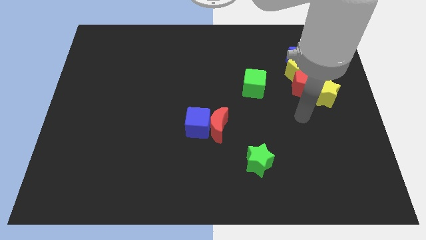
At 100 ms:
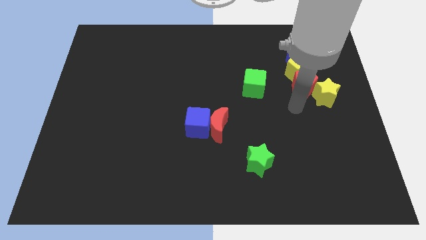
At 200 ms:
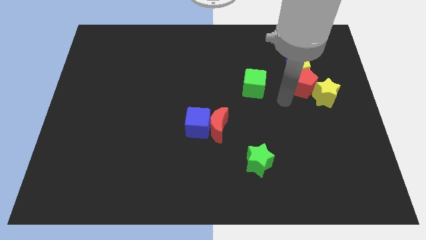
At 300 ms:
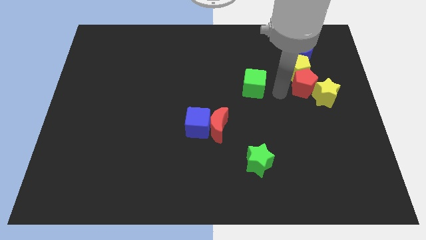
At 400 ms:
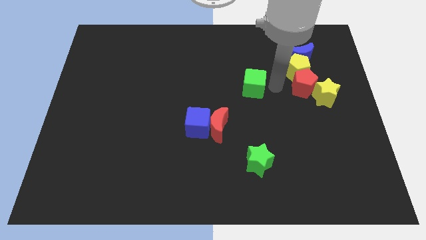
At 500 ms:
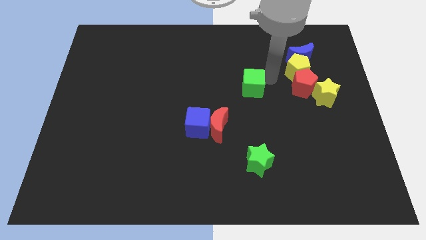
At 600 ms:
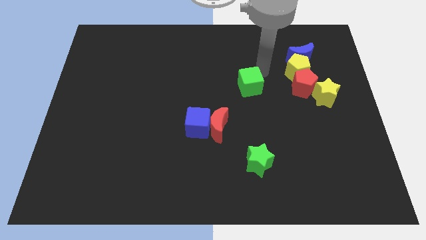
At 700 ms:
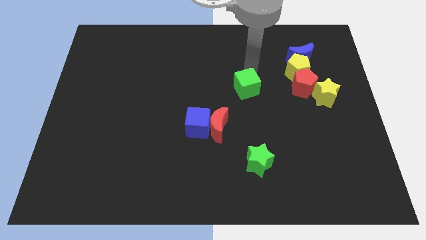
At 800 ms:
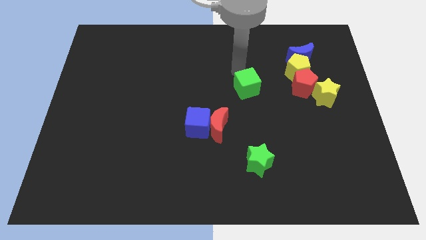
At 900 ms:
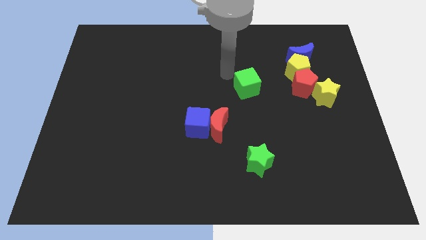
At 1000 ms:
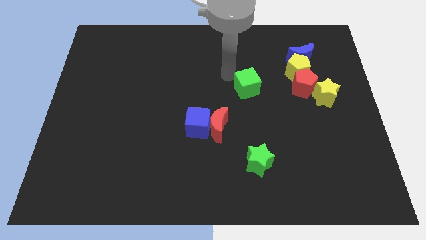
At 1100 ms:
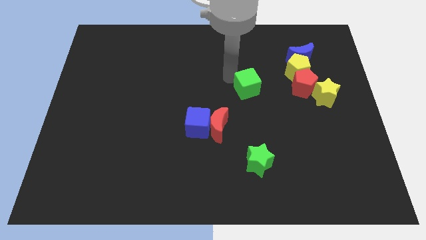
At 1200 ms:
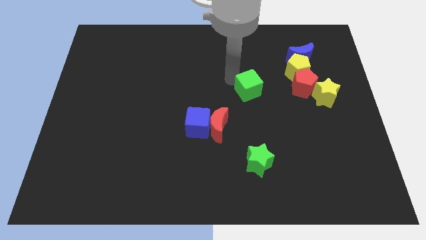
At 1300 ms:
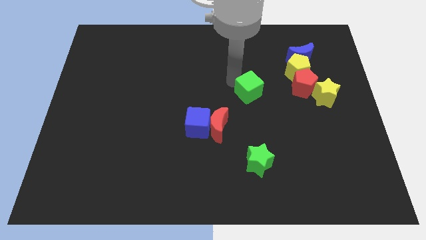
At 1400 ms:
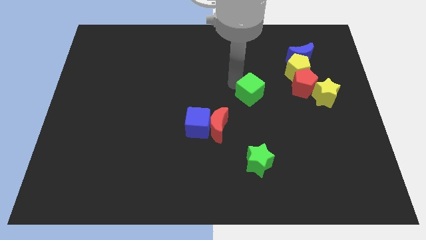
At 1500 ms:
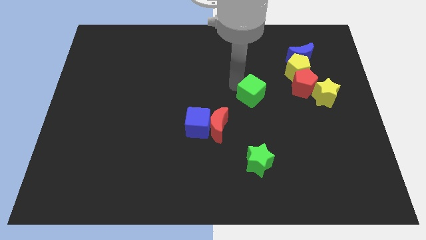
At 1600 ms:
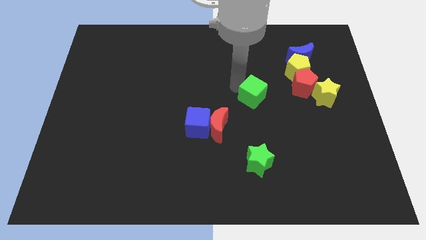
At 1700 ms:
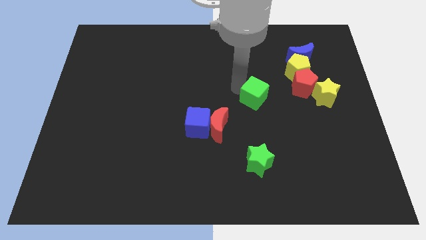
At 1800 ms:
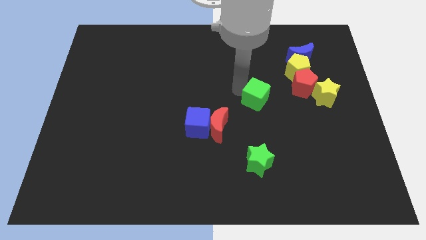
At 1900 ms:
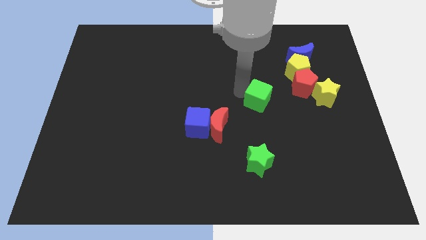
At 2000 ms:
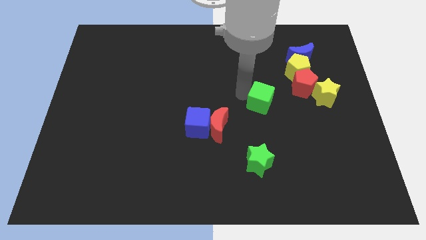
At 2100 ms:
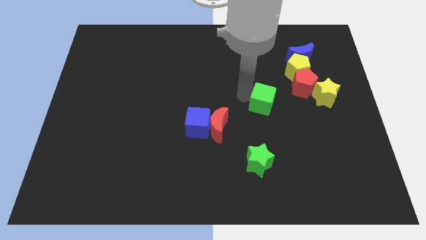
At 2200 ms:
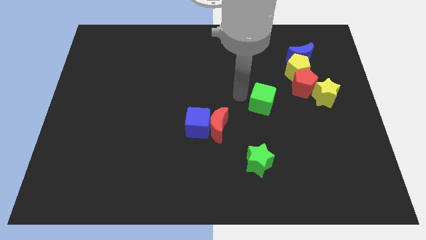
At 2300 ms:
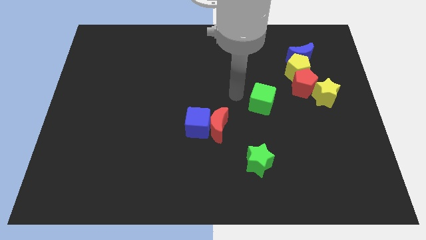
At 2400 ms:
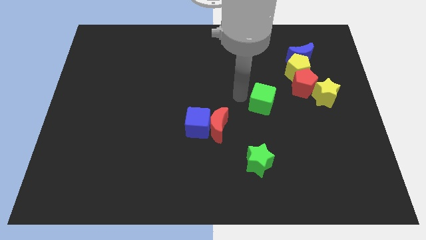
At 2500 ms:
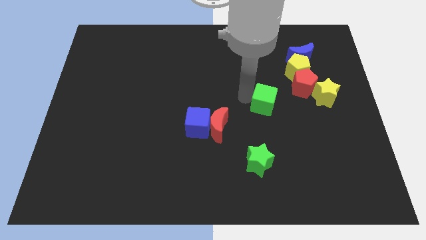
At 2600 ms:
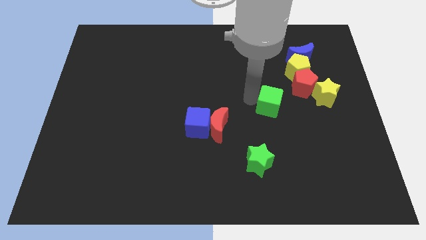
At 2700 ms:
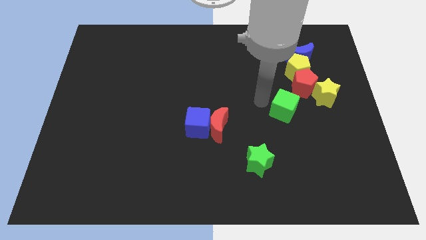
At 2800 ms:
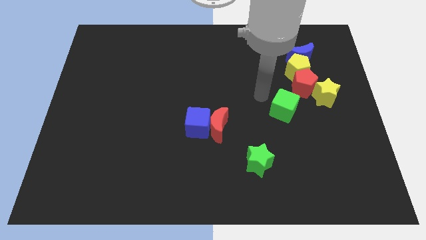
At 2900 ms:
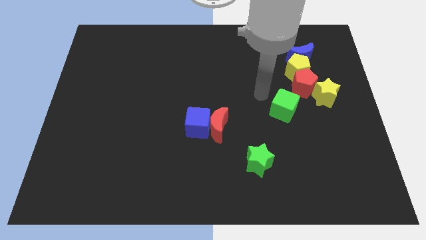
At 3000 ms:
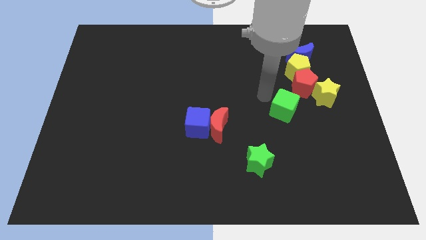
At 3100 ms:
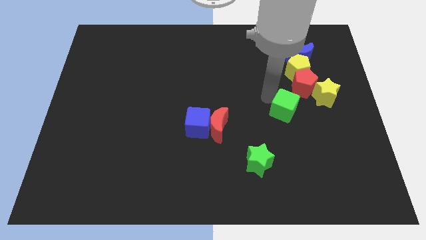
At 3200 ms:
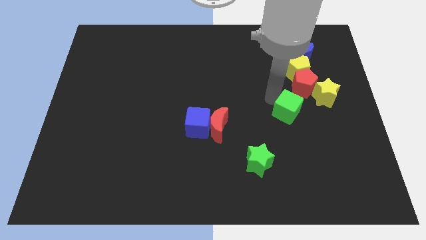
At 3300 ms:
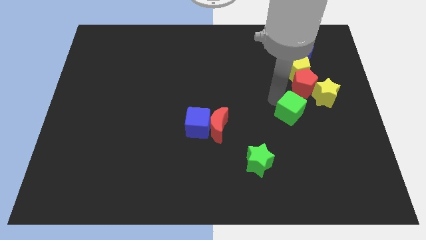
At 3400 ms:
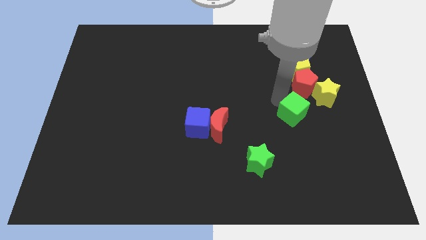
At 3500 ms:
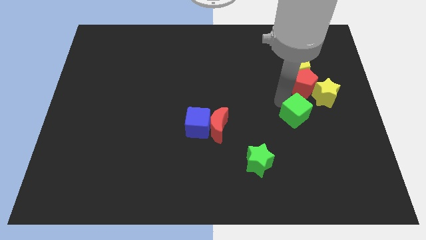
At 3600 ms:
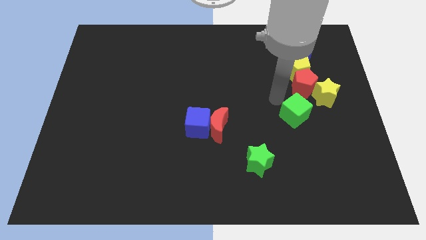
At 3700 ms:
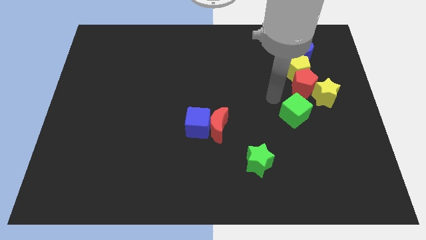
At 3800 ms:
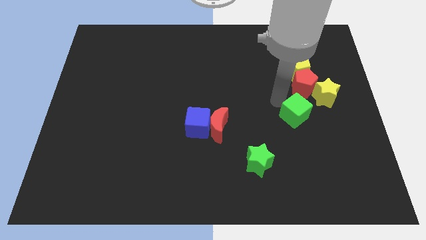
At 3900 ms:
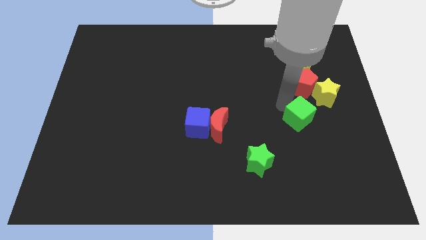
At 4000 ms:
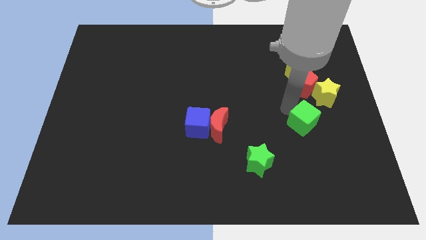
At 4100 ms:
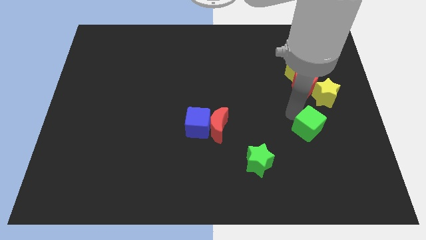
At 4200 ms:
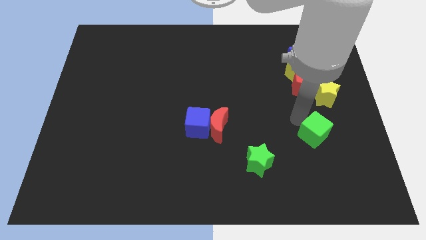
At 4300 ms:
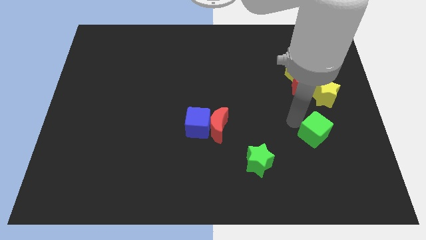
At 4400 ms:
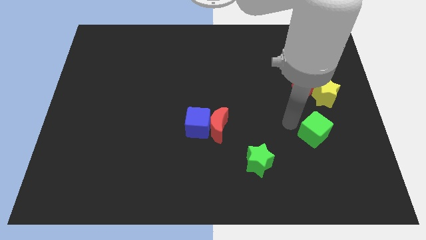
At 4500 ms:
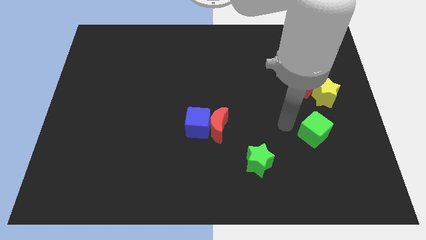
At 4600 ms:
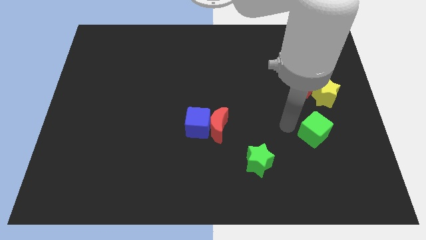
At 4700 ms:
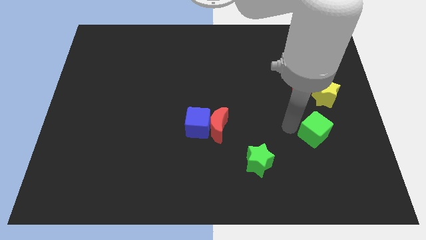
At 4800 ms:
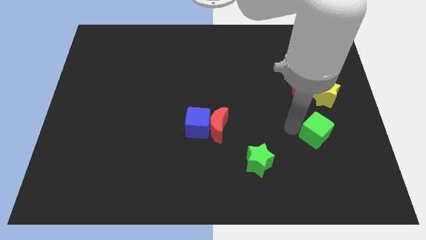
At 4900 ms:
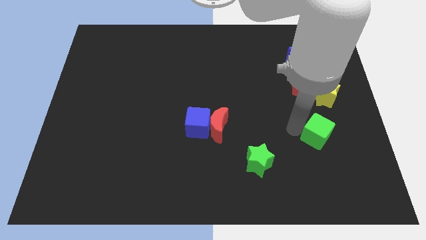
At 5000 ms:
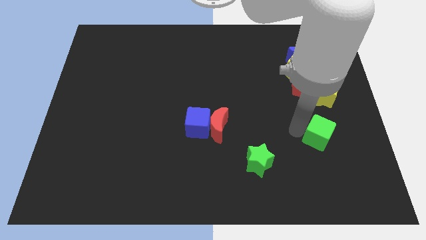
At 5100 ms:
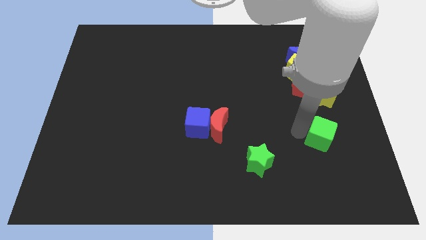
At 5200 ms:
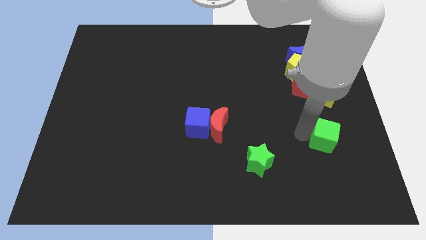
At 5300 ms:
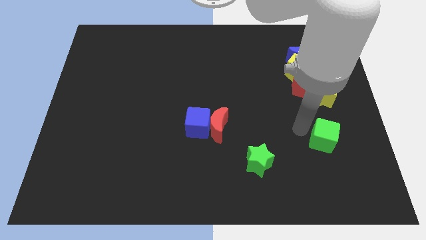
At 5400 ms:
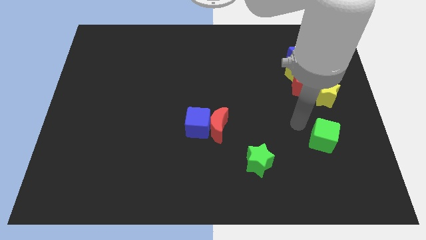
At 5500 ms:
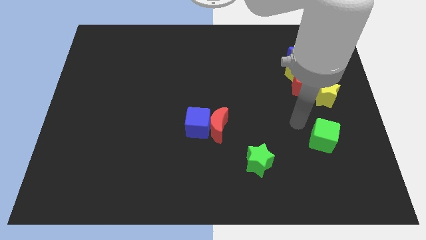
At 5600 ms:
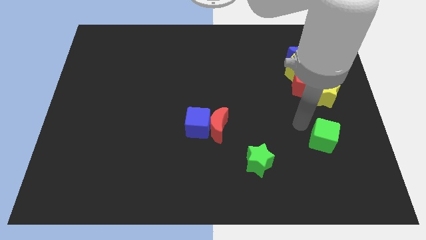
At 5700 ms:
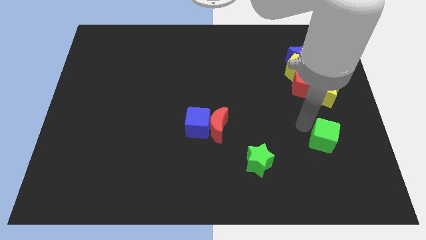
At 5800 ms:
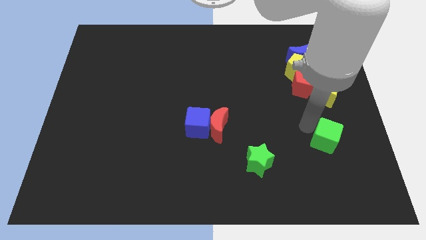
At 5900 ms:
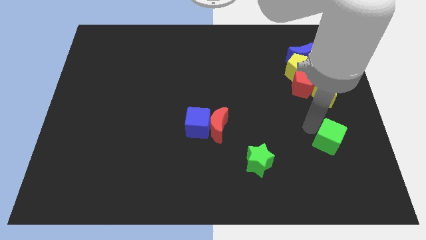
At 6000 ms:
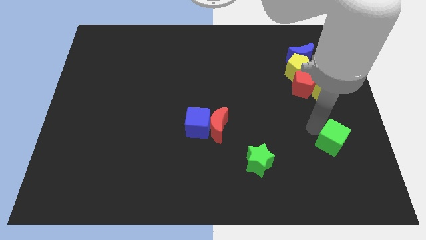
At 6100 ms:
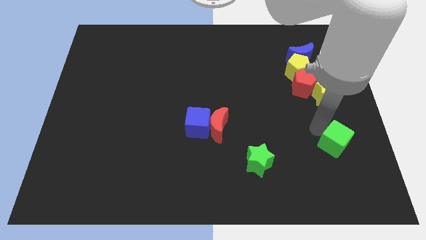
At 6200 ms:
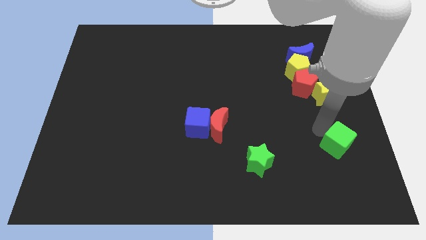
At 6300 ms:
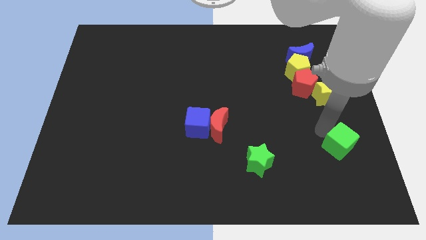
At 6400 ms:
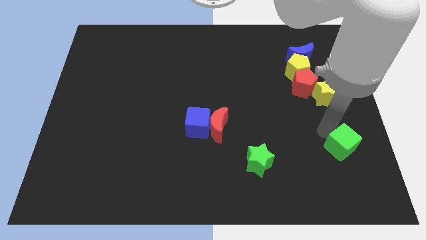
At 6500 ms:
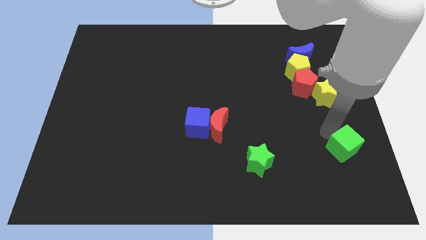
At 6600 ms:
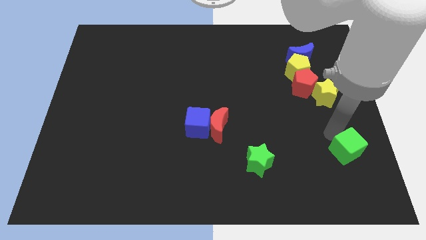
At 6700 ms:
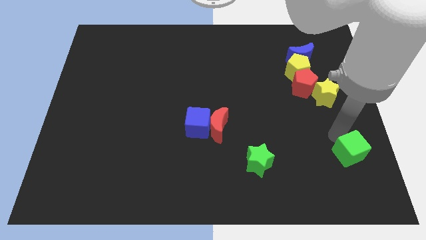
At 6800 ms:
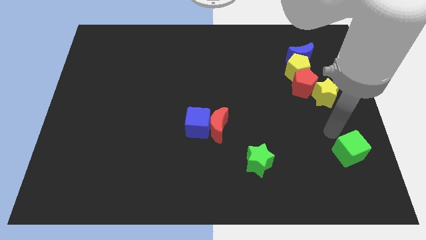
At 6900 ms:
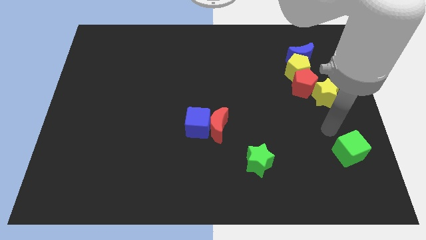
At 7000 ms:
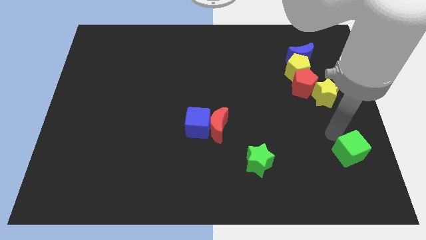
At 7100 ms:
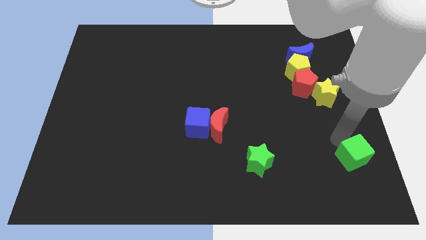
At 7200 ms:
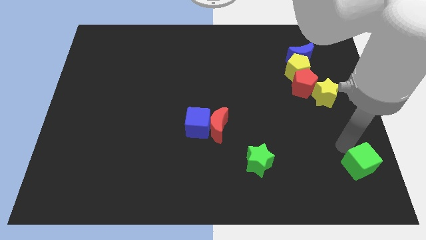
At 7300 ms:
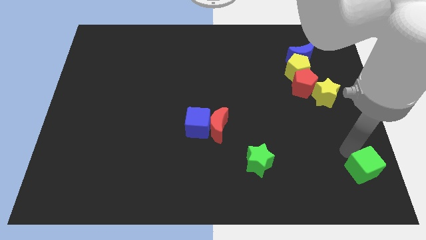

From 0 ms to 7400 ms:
push the green cube to the bottom right of the board

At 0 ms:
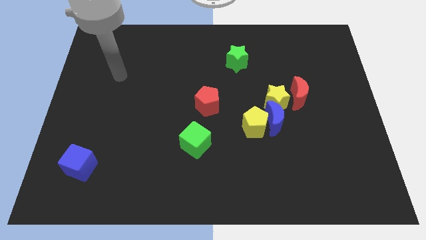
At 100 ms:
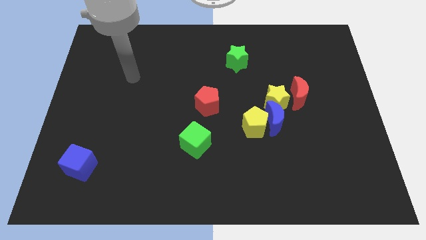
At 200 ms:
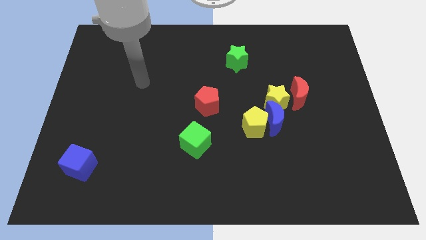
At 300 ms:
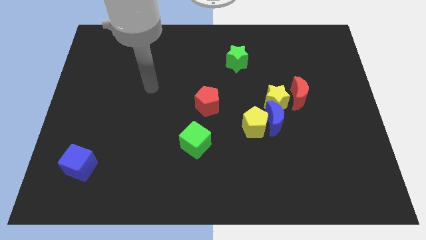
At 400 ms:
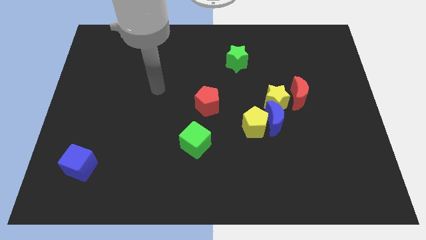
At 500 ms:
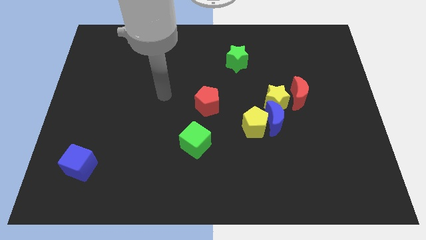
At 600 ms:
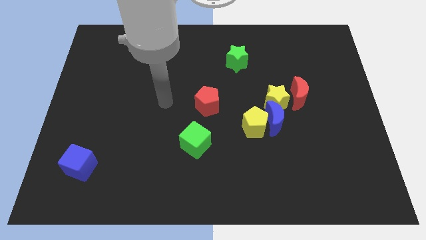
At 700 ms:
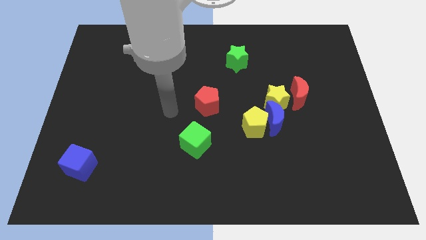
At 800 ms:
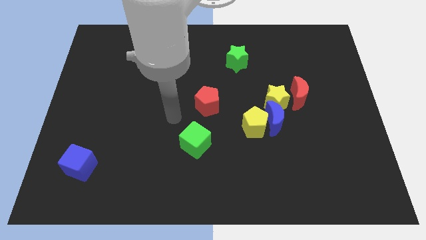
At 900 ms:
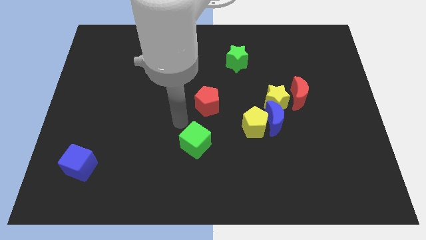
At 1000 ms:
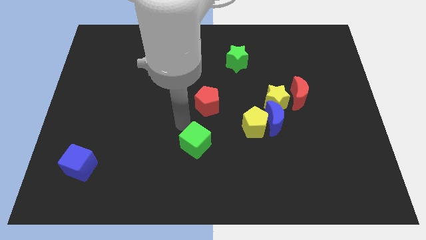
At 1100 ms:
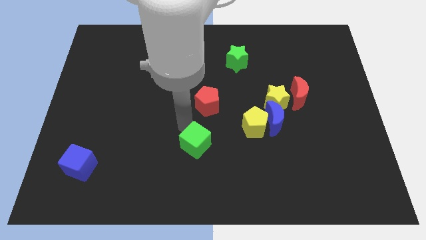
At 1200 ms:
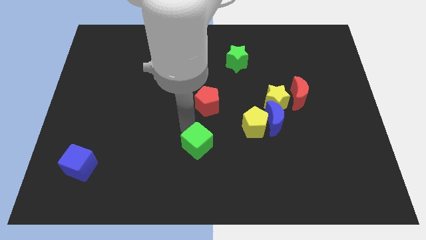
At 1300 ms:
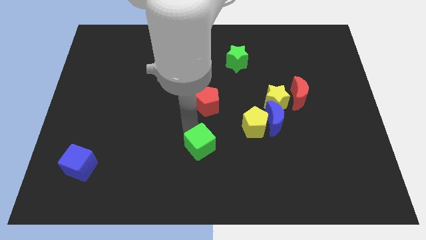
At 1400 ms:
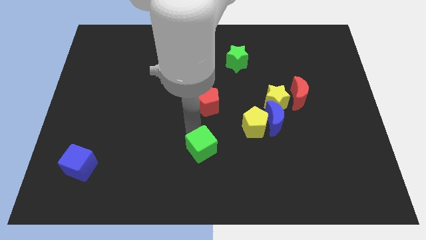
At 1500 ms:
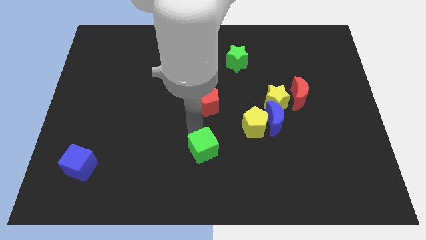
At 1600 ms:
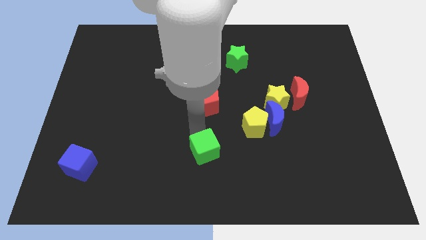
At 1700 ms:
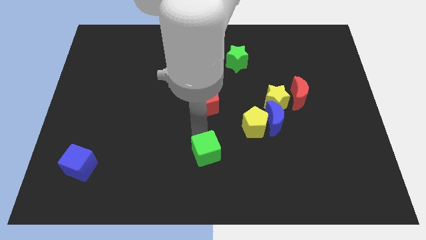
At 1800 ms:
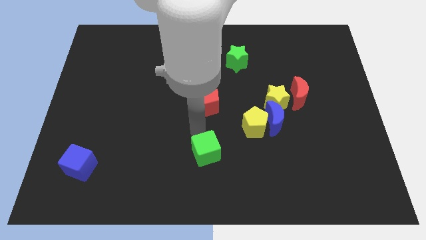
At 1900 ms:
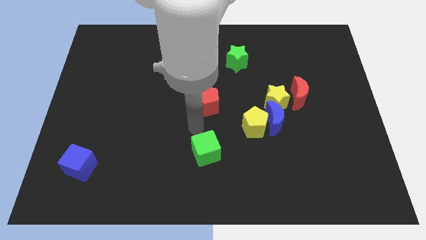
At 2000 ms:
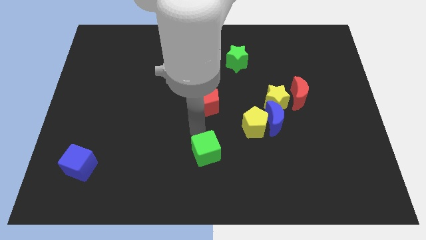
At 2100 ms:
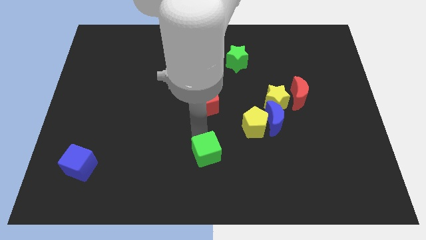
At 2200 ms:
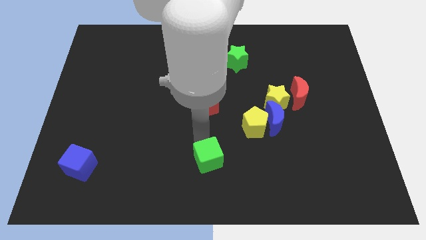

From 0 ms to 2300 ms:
move the green cube to the bottom side
